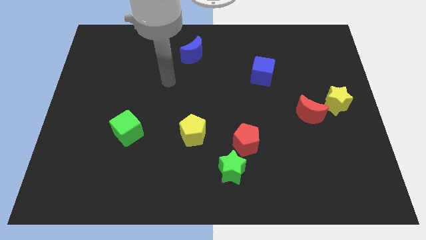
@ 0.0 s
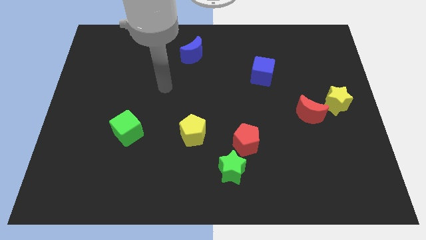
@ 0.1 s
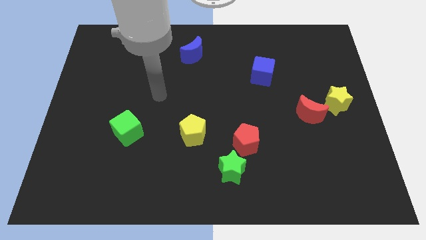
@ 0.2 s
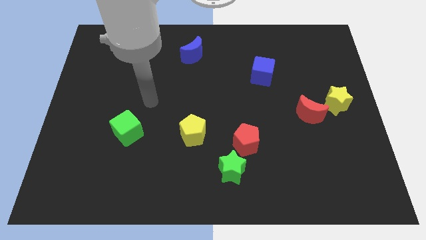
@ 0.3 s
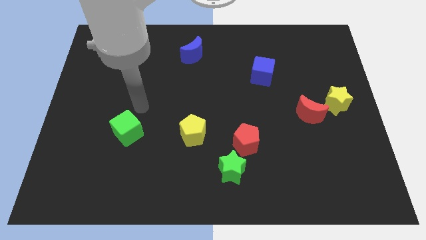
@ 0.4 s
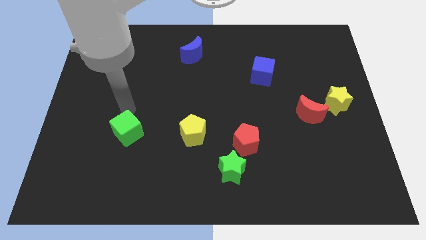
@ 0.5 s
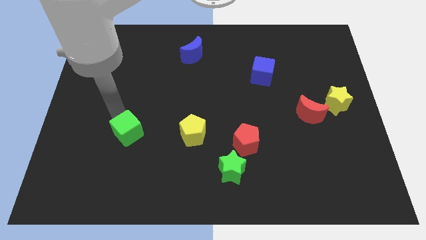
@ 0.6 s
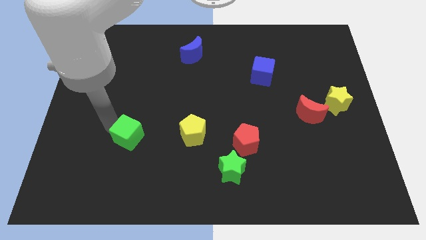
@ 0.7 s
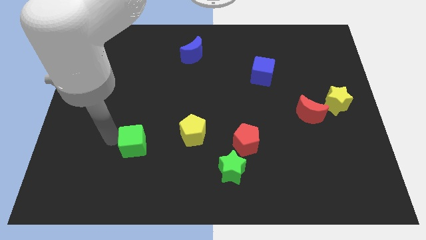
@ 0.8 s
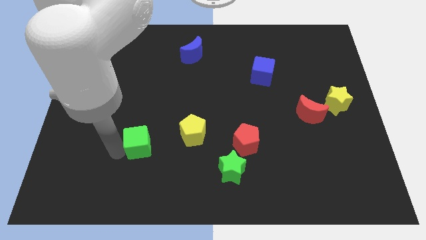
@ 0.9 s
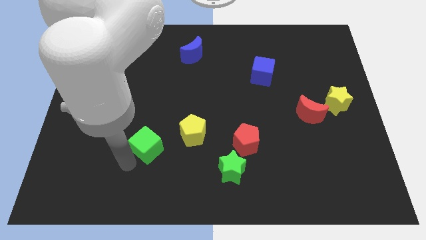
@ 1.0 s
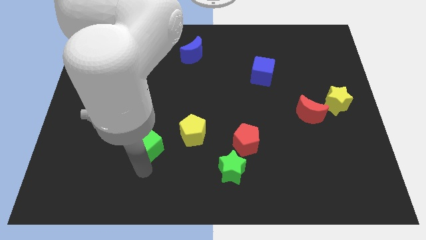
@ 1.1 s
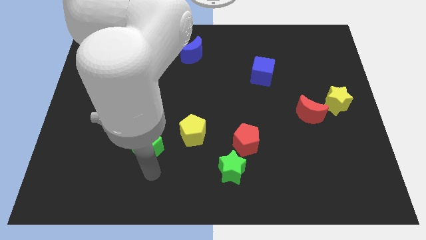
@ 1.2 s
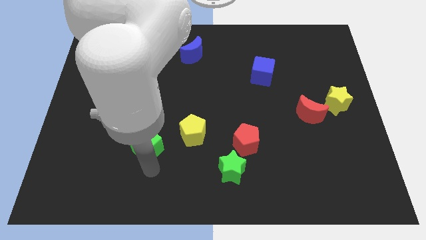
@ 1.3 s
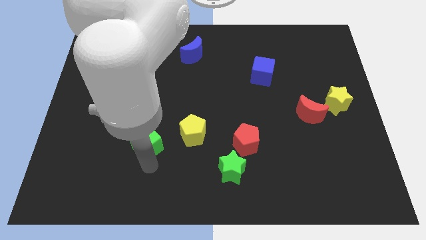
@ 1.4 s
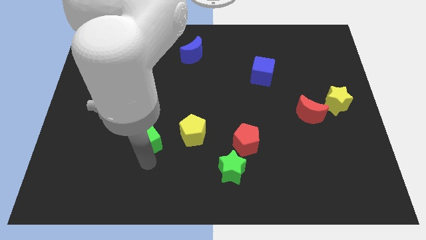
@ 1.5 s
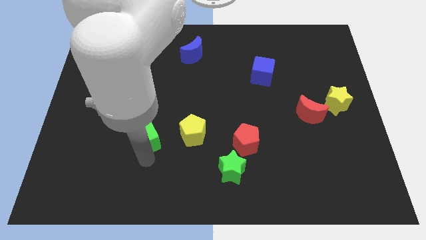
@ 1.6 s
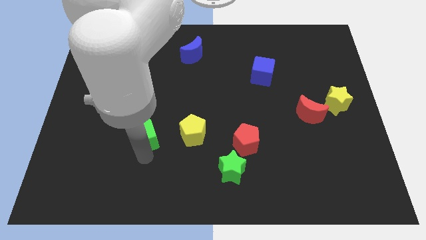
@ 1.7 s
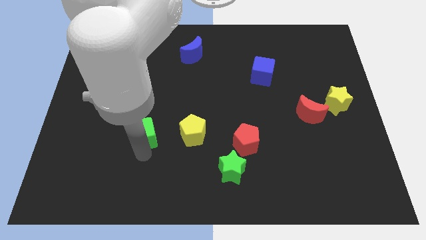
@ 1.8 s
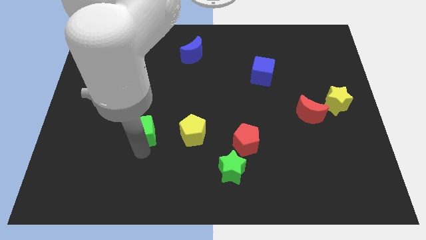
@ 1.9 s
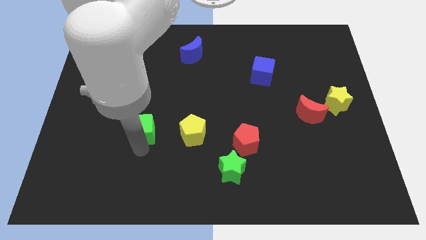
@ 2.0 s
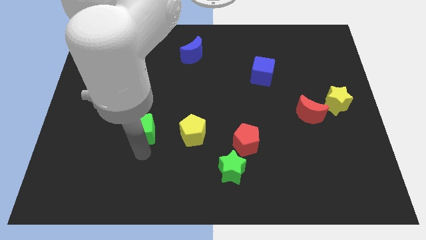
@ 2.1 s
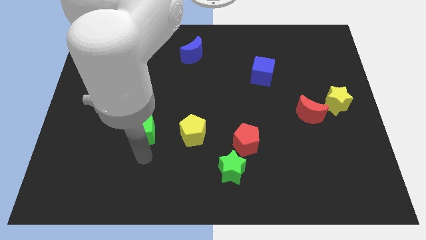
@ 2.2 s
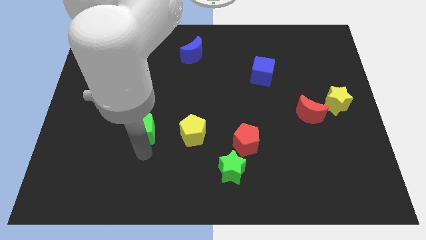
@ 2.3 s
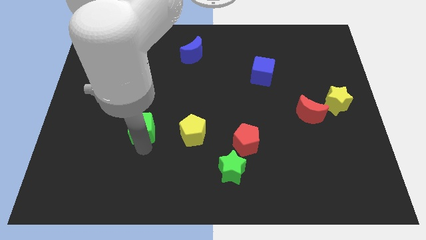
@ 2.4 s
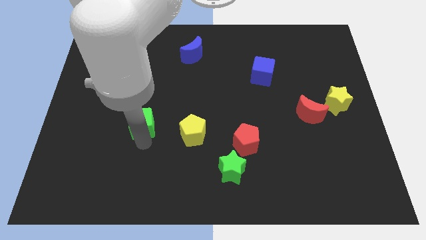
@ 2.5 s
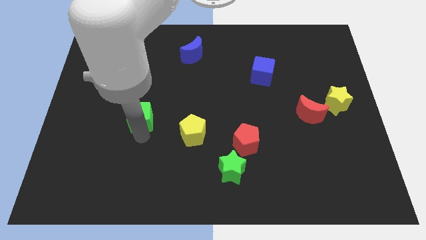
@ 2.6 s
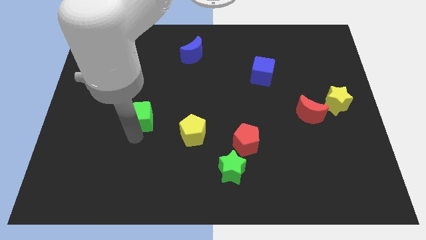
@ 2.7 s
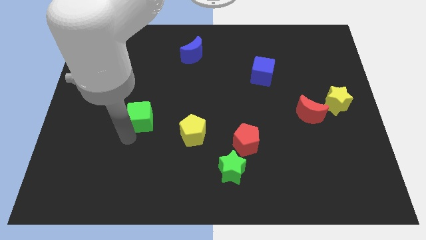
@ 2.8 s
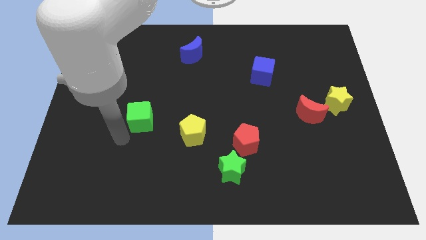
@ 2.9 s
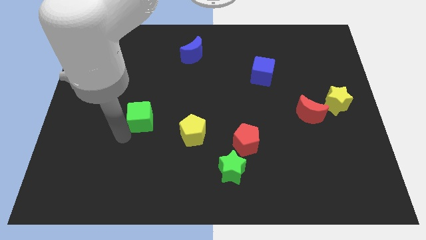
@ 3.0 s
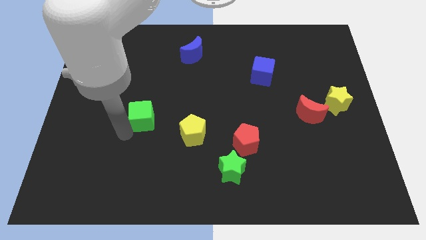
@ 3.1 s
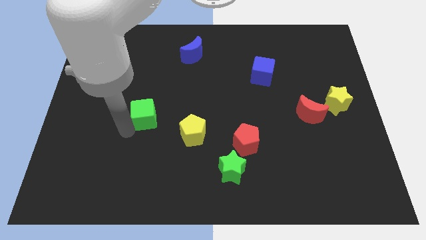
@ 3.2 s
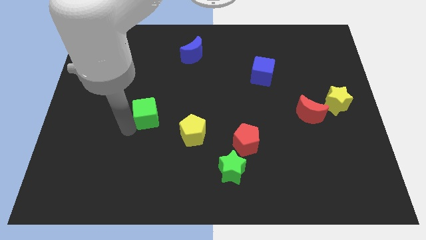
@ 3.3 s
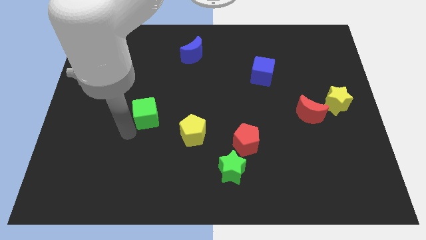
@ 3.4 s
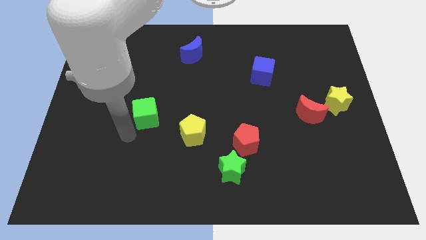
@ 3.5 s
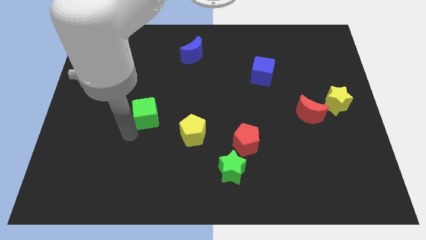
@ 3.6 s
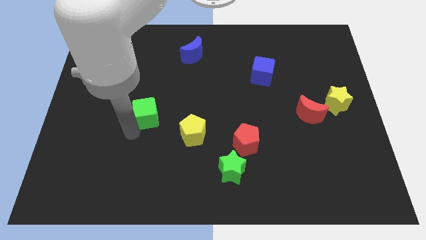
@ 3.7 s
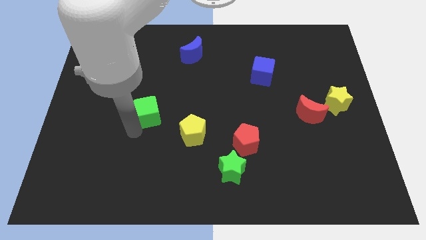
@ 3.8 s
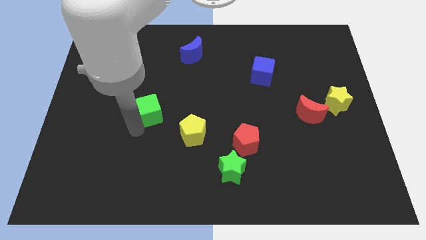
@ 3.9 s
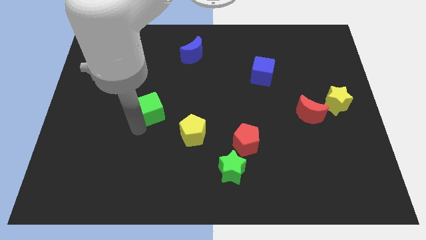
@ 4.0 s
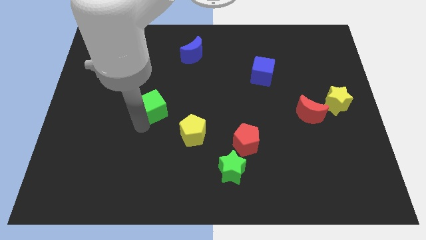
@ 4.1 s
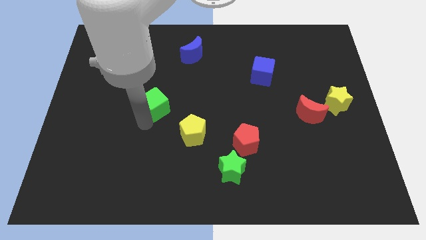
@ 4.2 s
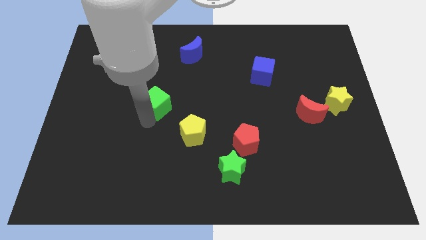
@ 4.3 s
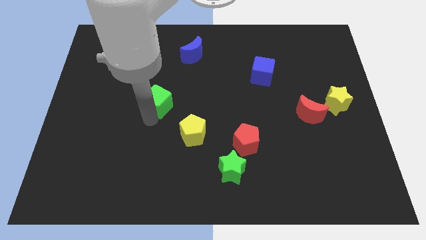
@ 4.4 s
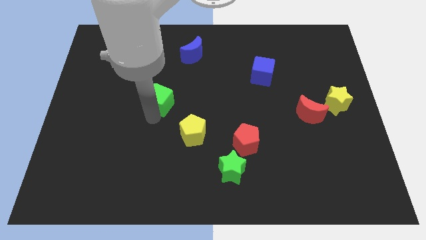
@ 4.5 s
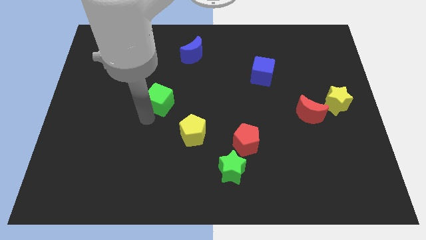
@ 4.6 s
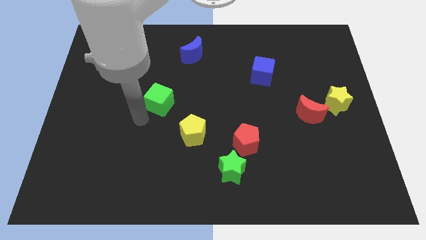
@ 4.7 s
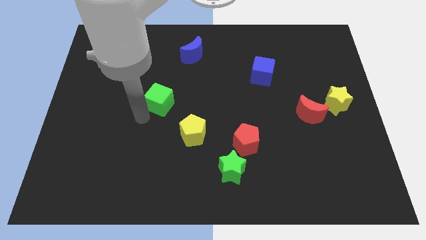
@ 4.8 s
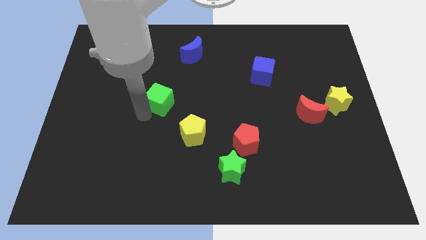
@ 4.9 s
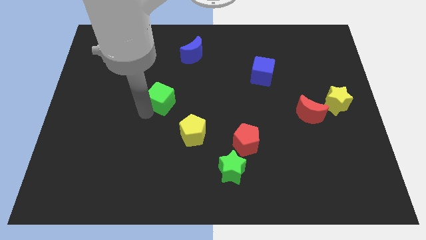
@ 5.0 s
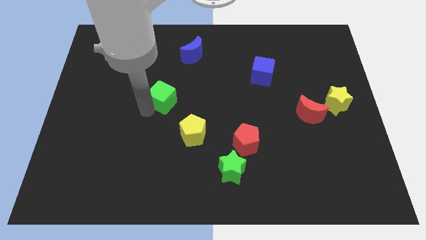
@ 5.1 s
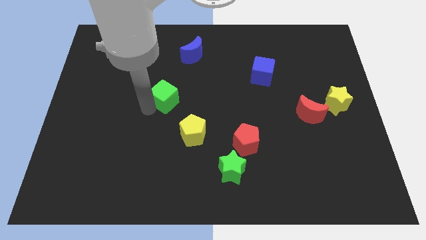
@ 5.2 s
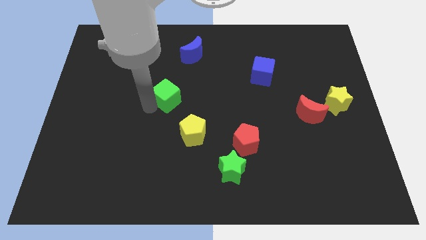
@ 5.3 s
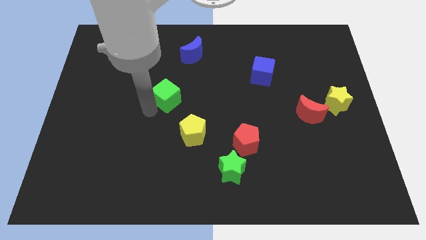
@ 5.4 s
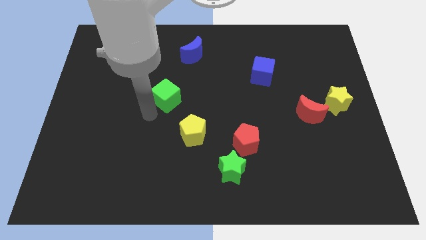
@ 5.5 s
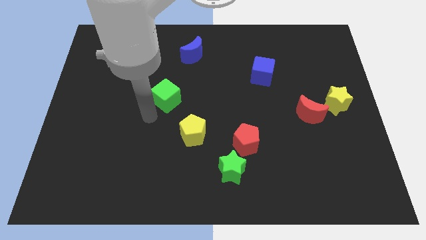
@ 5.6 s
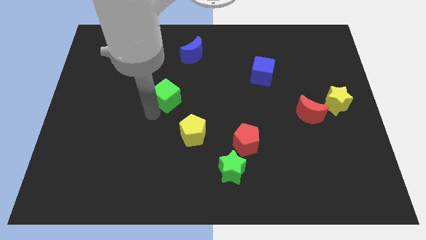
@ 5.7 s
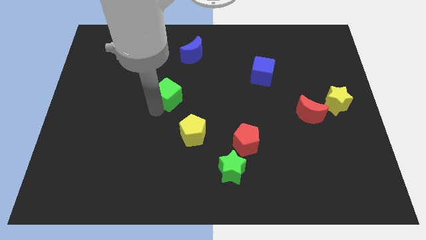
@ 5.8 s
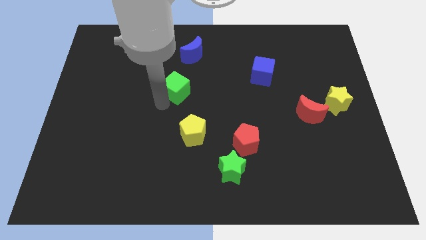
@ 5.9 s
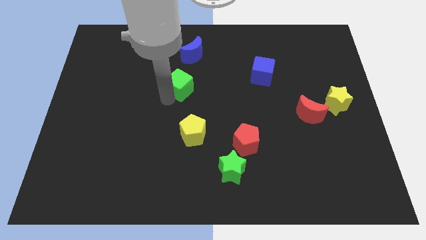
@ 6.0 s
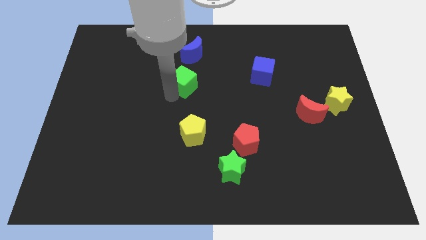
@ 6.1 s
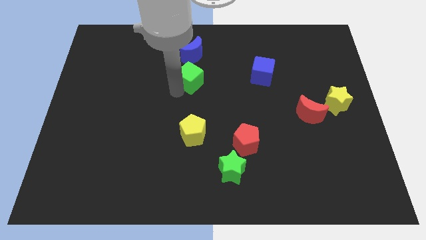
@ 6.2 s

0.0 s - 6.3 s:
push the green cube upwards and right

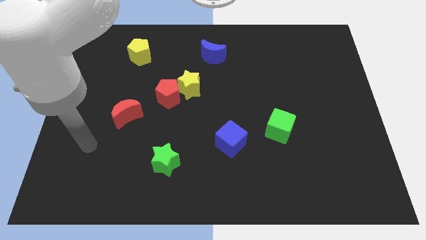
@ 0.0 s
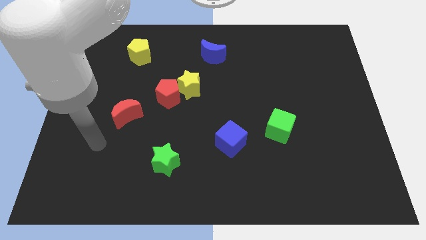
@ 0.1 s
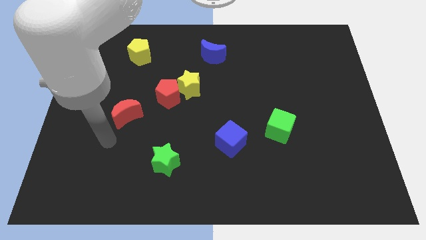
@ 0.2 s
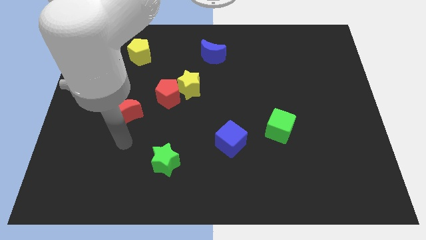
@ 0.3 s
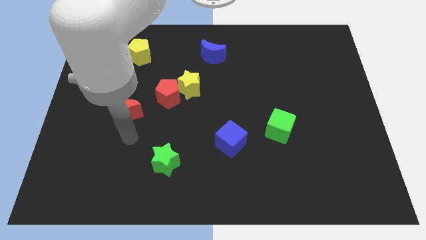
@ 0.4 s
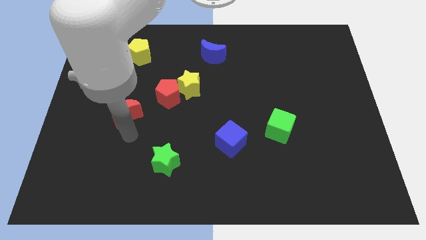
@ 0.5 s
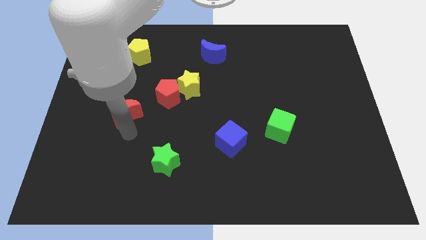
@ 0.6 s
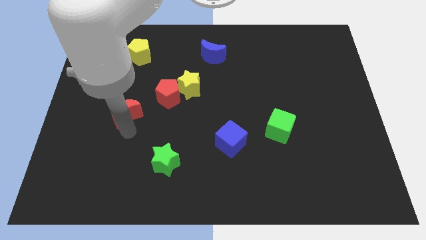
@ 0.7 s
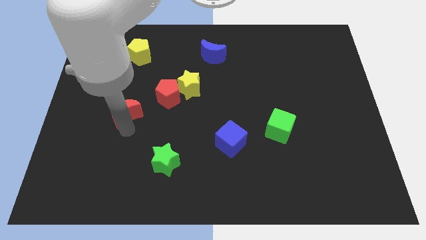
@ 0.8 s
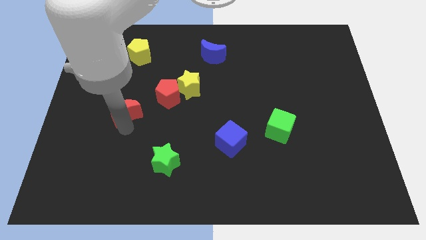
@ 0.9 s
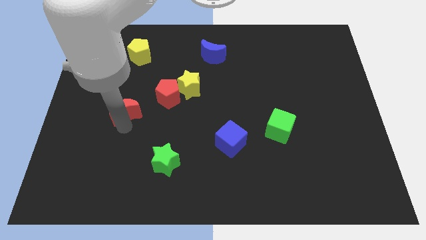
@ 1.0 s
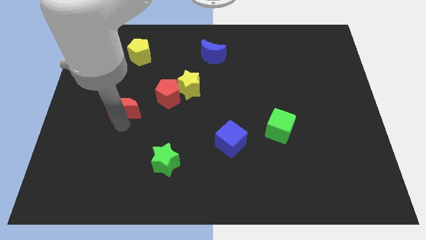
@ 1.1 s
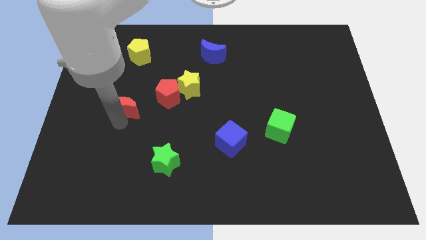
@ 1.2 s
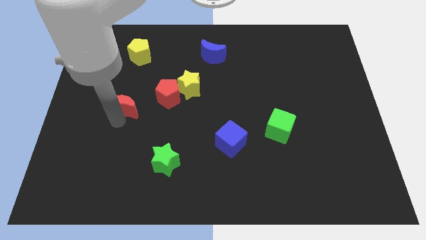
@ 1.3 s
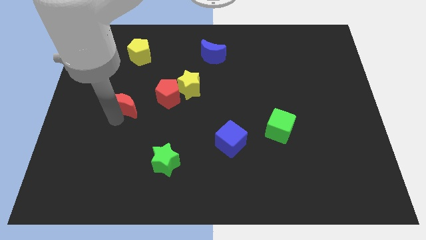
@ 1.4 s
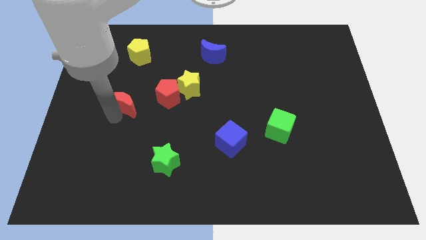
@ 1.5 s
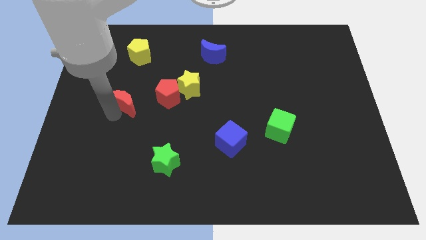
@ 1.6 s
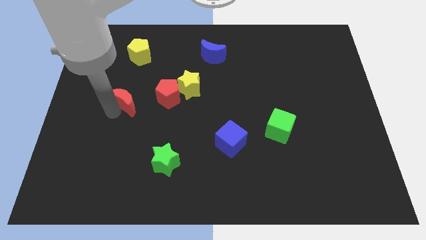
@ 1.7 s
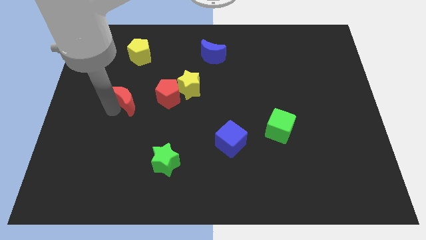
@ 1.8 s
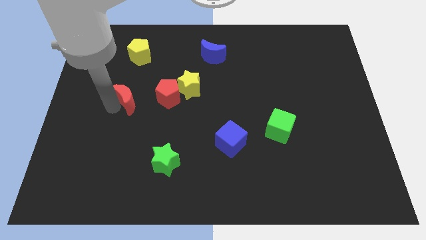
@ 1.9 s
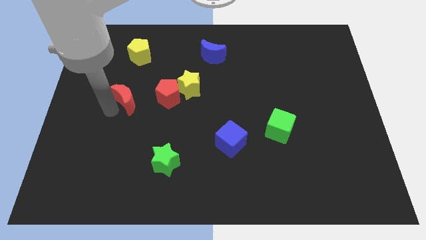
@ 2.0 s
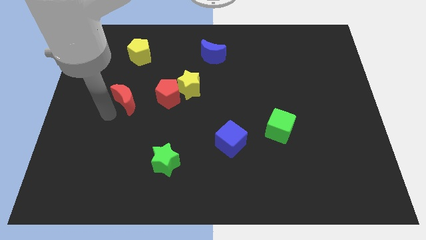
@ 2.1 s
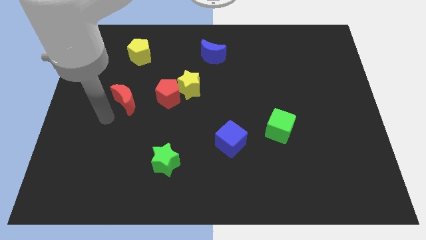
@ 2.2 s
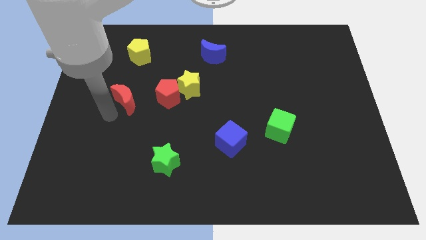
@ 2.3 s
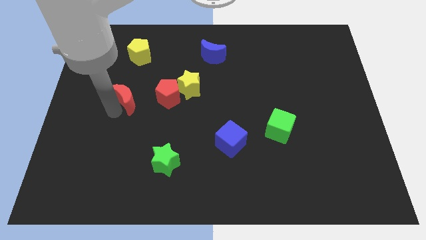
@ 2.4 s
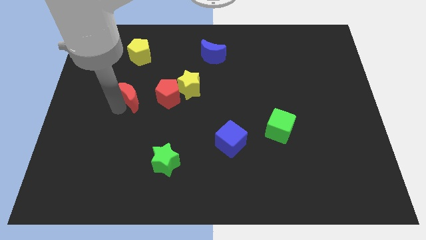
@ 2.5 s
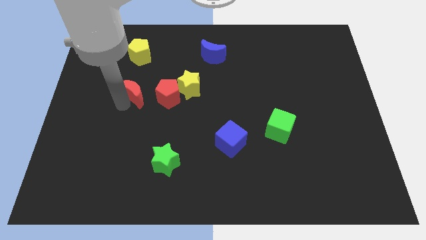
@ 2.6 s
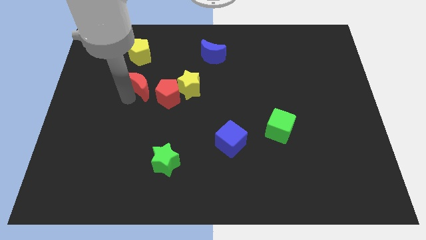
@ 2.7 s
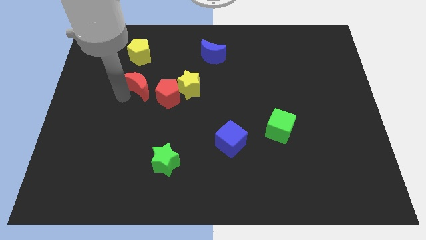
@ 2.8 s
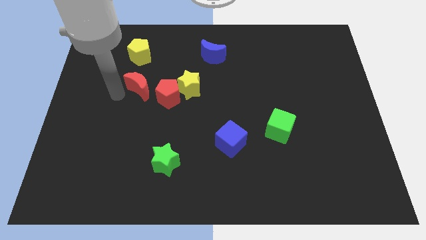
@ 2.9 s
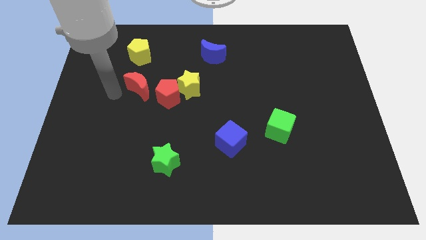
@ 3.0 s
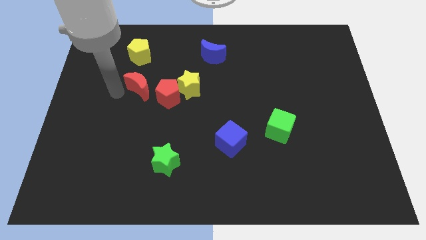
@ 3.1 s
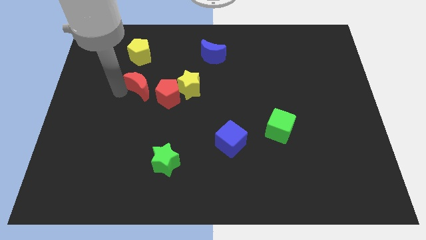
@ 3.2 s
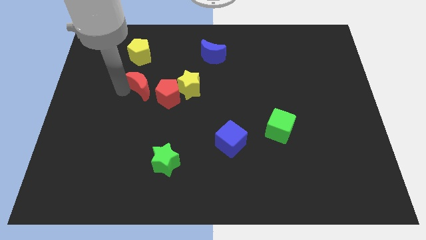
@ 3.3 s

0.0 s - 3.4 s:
slightly move the red moon upwards and to the right
